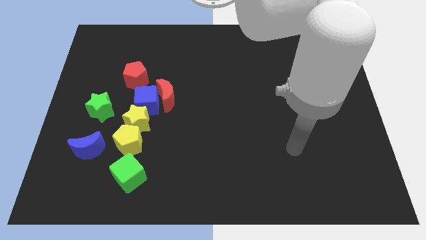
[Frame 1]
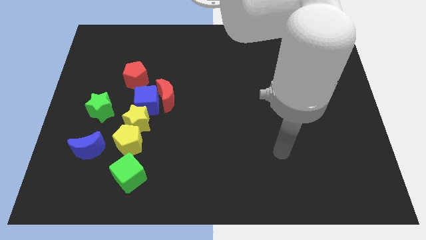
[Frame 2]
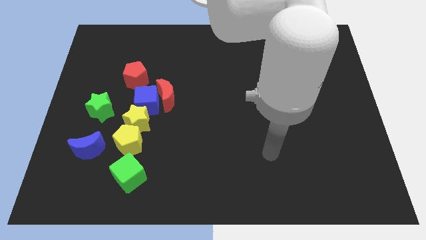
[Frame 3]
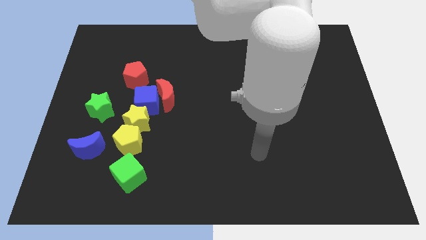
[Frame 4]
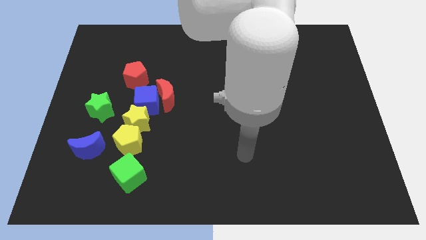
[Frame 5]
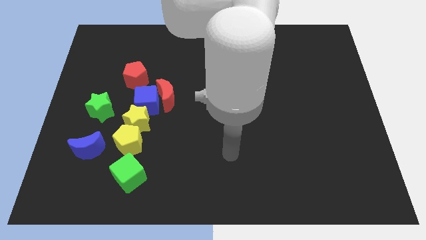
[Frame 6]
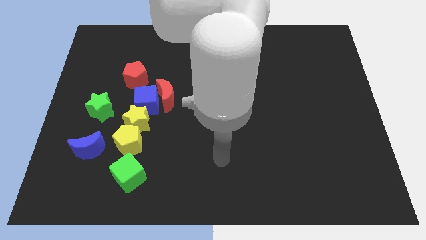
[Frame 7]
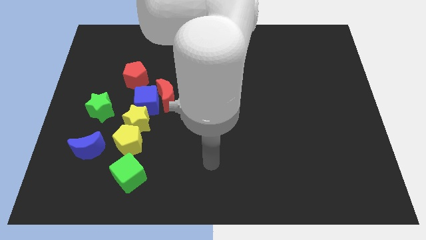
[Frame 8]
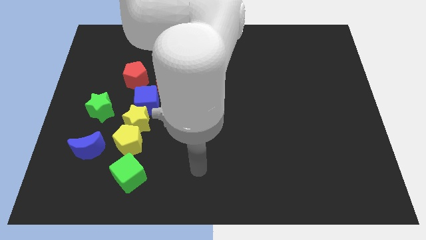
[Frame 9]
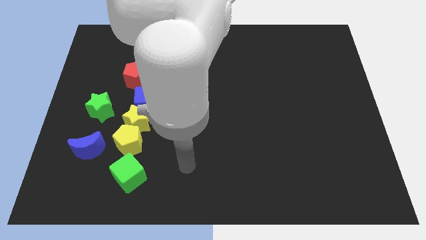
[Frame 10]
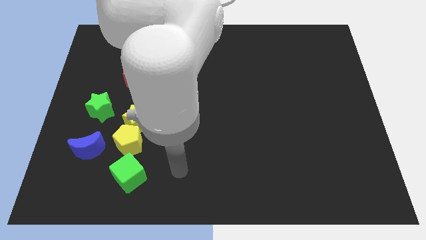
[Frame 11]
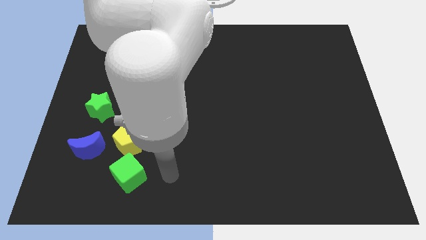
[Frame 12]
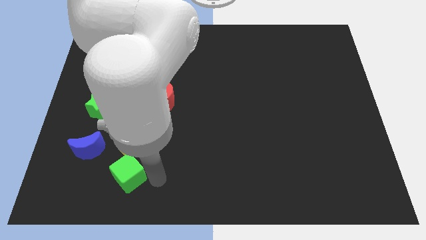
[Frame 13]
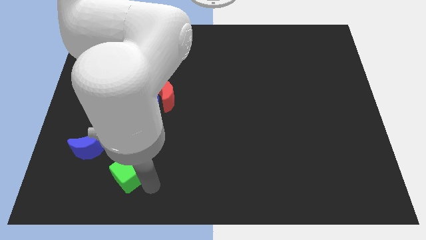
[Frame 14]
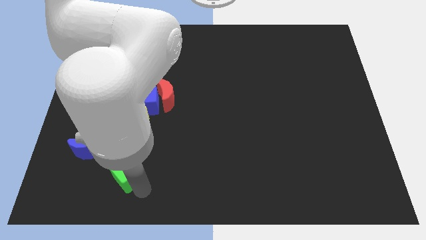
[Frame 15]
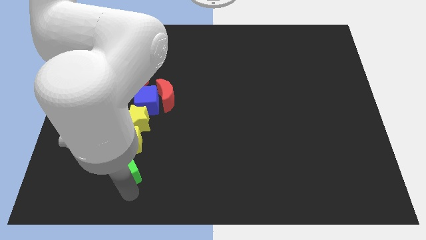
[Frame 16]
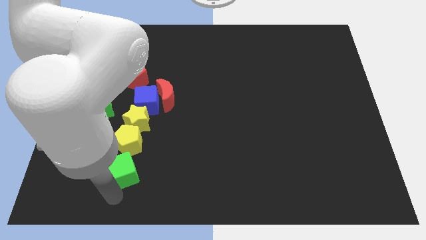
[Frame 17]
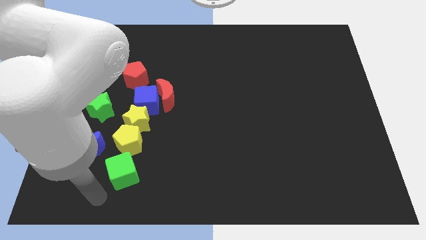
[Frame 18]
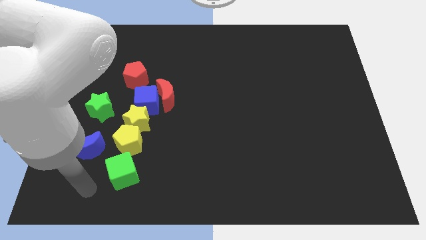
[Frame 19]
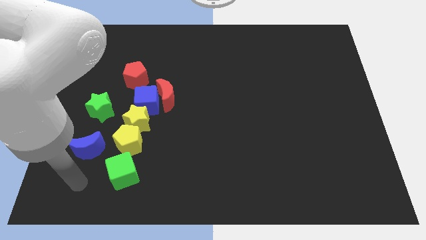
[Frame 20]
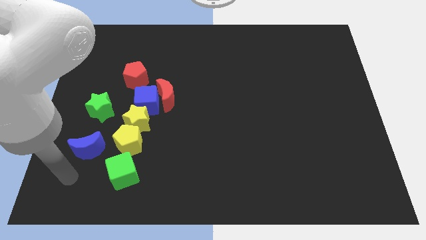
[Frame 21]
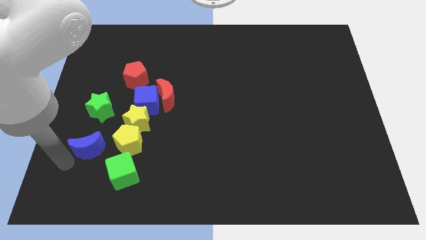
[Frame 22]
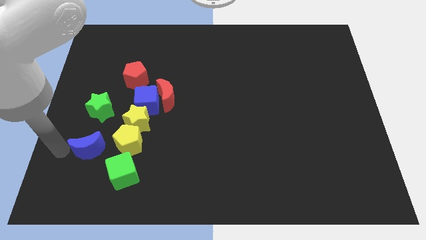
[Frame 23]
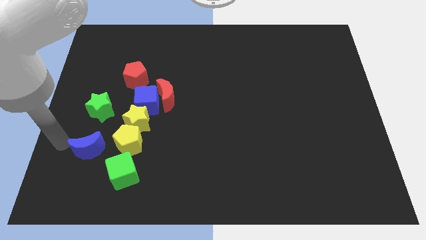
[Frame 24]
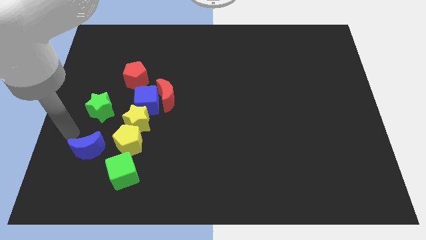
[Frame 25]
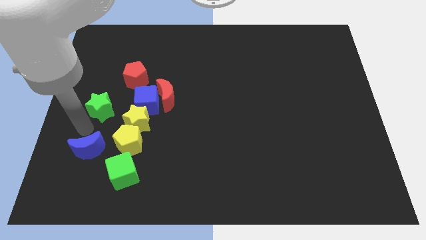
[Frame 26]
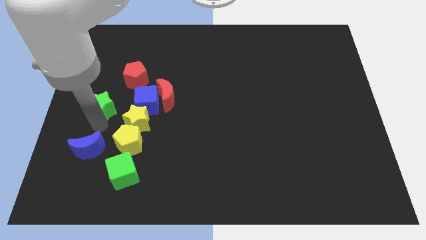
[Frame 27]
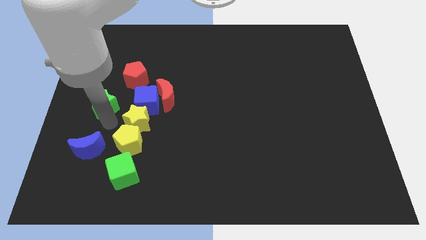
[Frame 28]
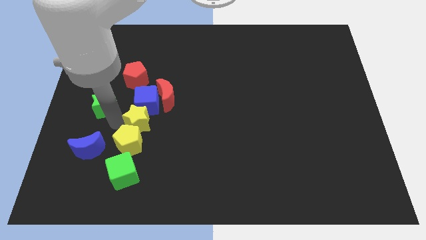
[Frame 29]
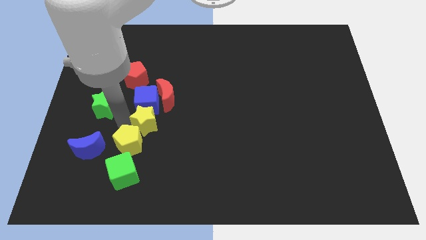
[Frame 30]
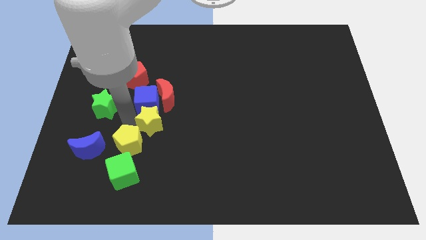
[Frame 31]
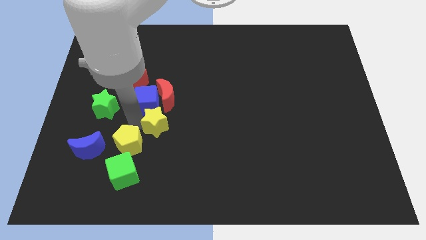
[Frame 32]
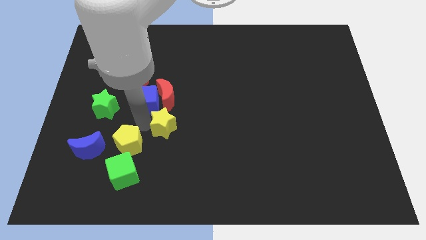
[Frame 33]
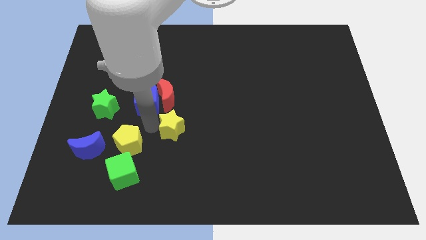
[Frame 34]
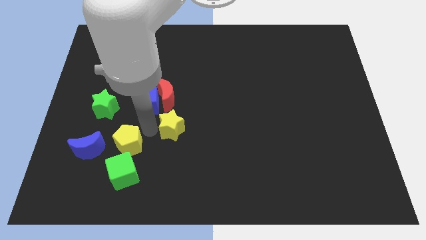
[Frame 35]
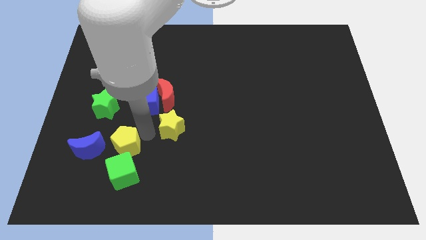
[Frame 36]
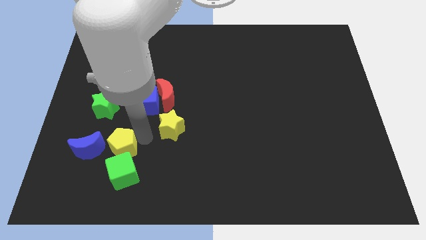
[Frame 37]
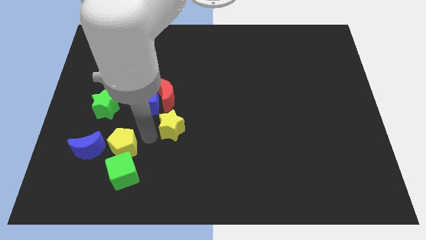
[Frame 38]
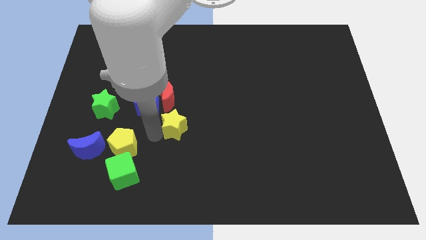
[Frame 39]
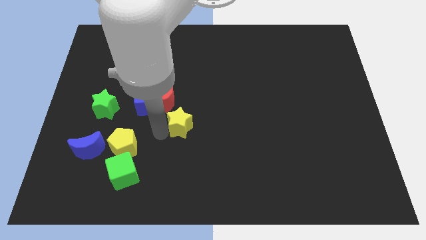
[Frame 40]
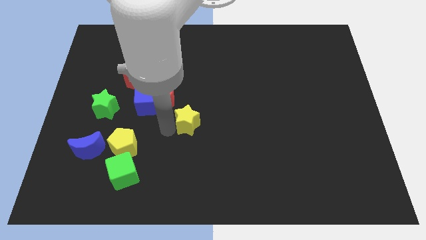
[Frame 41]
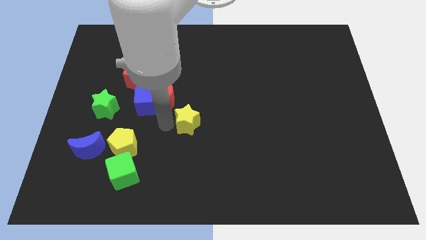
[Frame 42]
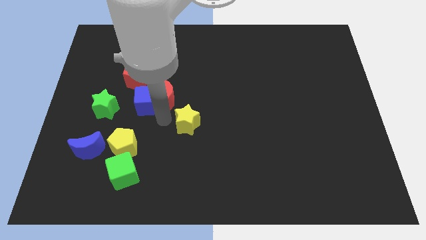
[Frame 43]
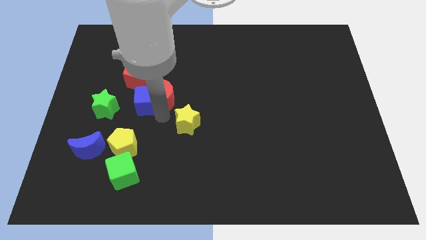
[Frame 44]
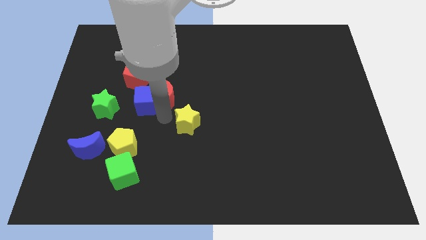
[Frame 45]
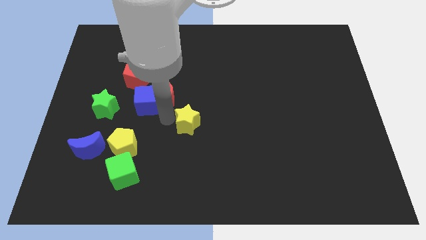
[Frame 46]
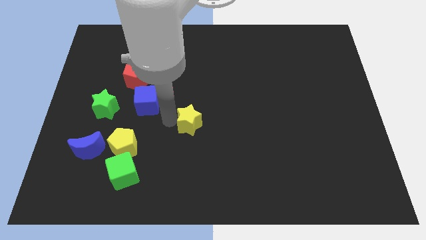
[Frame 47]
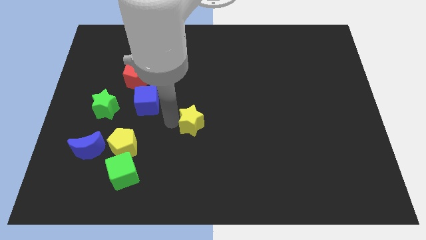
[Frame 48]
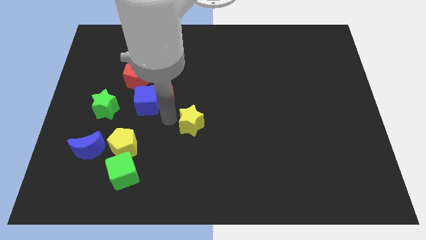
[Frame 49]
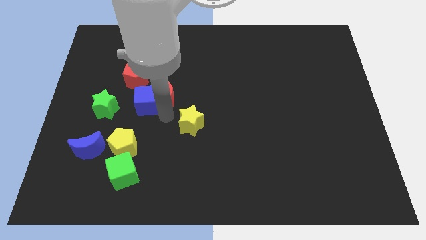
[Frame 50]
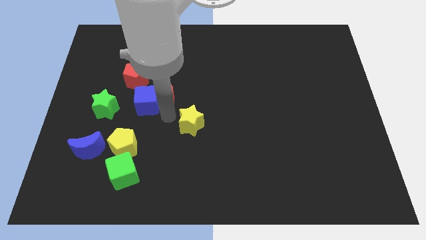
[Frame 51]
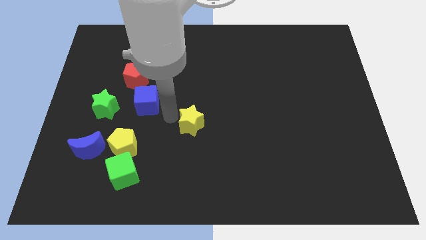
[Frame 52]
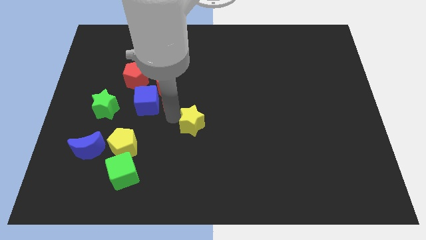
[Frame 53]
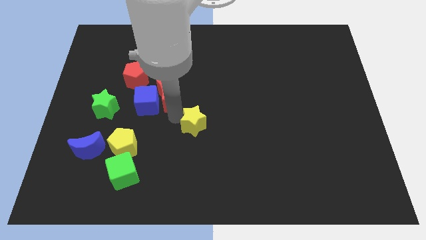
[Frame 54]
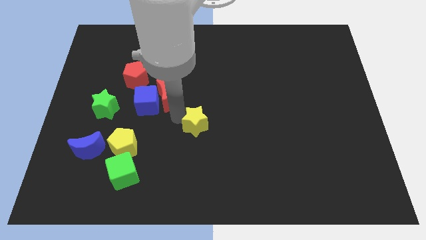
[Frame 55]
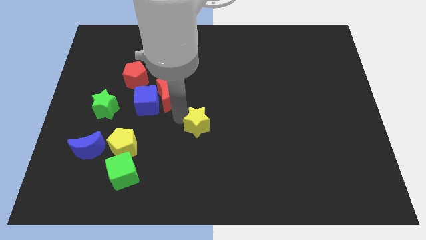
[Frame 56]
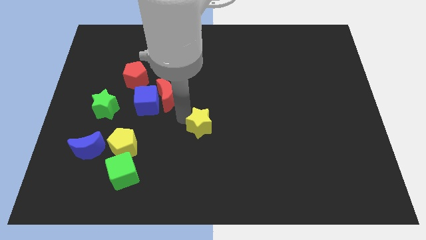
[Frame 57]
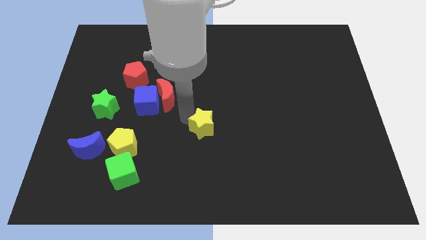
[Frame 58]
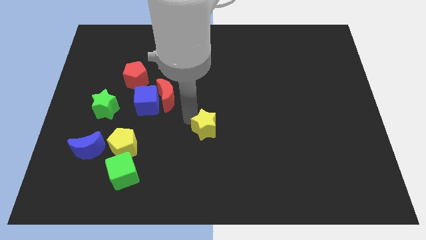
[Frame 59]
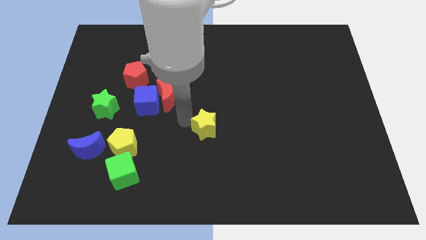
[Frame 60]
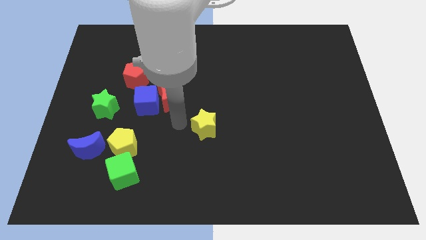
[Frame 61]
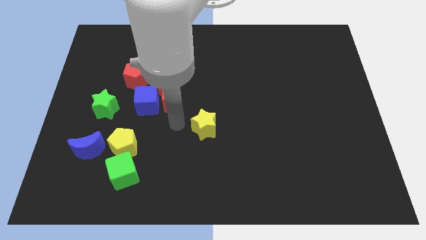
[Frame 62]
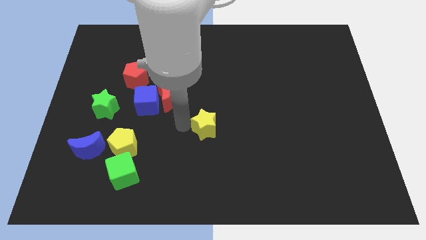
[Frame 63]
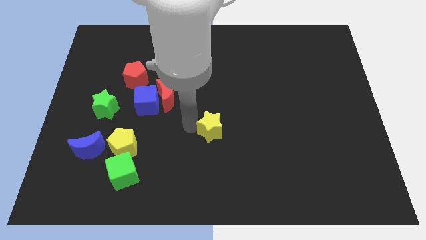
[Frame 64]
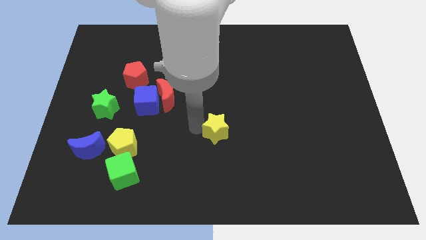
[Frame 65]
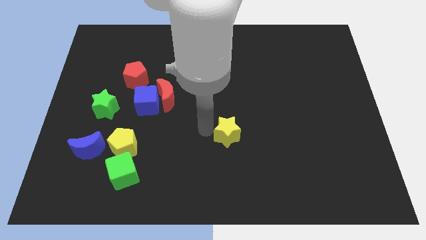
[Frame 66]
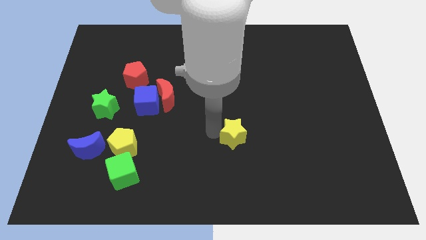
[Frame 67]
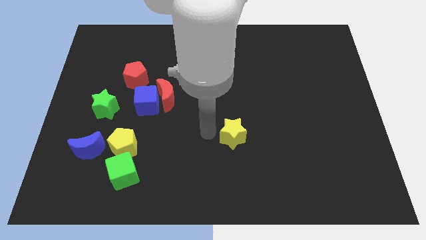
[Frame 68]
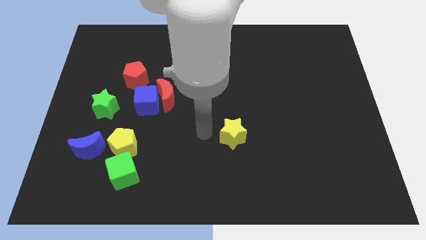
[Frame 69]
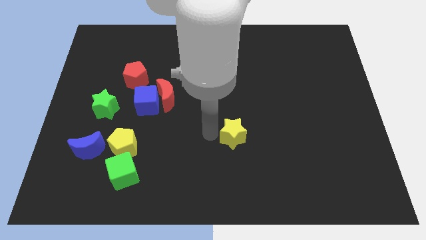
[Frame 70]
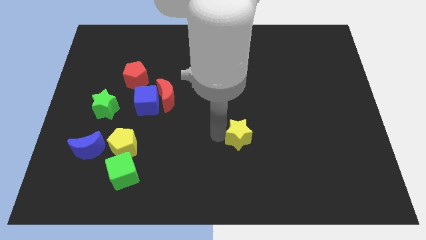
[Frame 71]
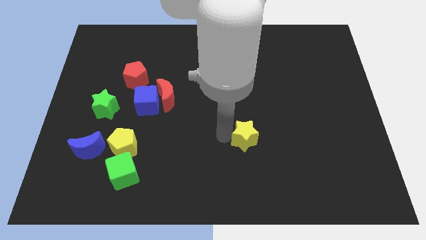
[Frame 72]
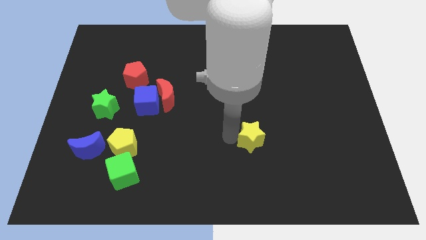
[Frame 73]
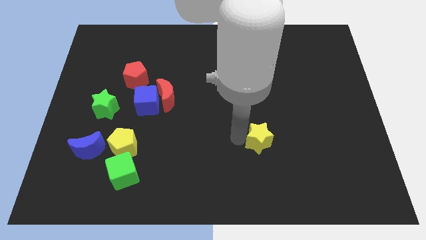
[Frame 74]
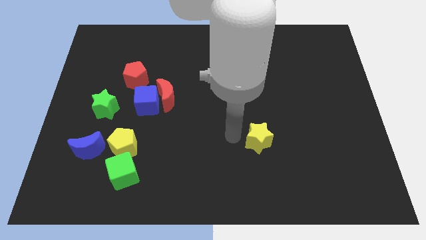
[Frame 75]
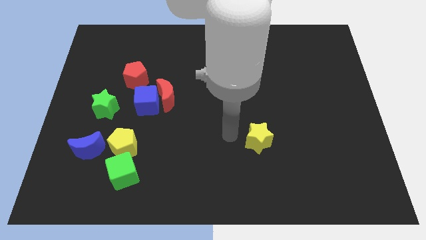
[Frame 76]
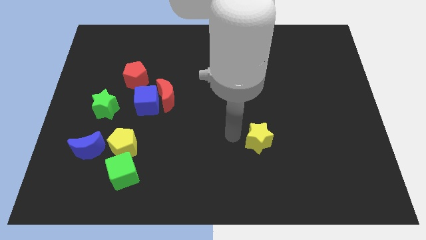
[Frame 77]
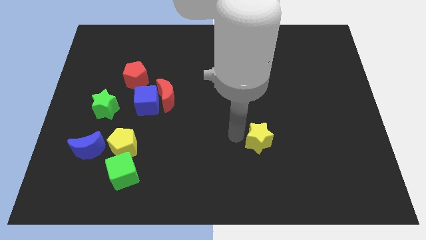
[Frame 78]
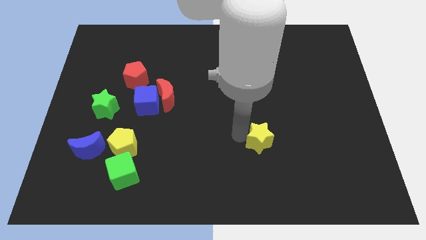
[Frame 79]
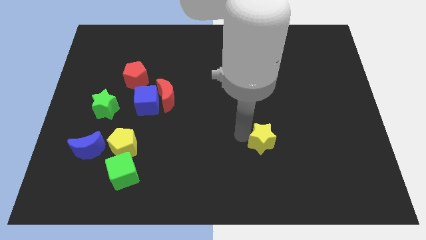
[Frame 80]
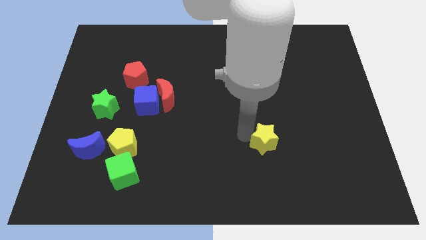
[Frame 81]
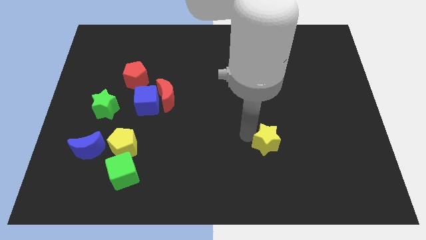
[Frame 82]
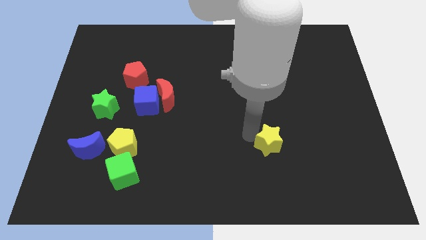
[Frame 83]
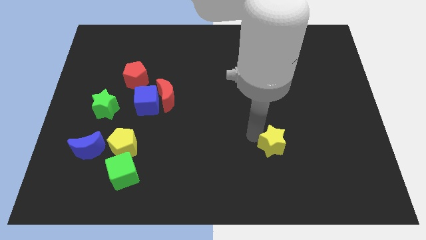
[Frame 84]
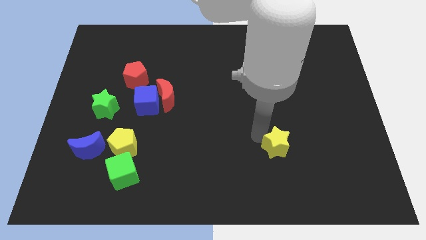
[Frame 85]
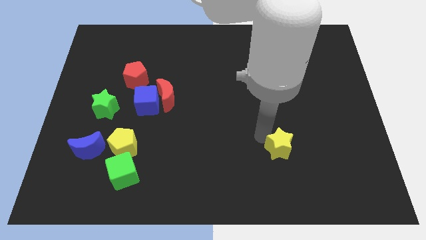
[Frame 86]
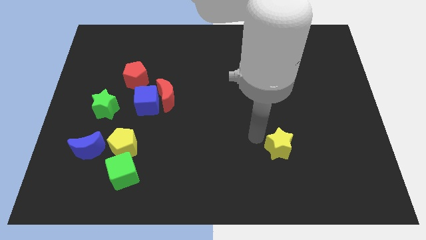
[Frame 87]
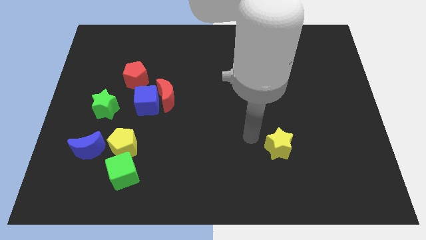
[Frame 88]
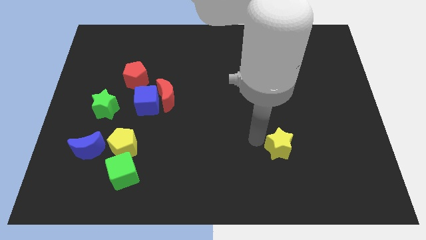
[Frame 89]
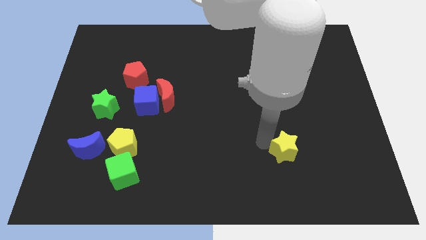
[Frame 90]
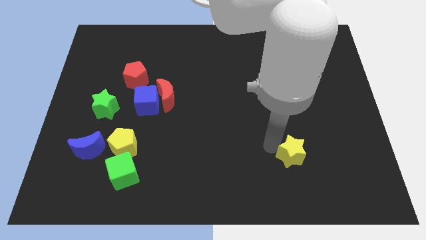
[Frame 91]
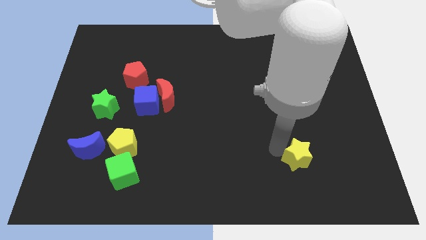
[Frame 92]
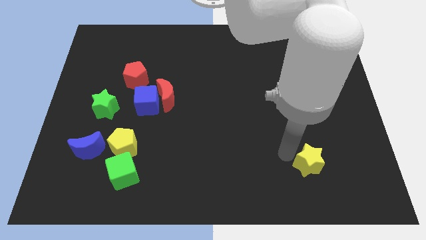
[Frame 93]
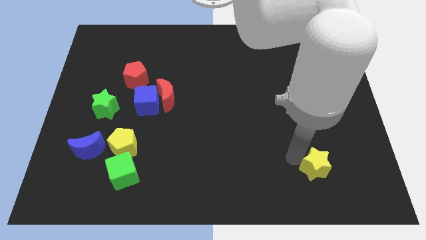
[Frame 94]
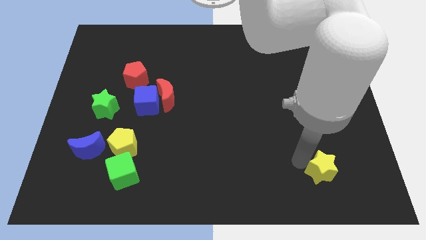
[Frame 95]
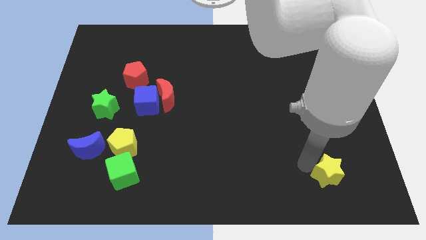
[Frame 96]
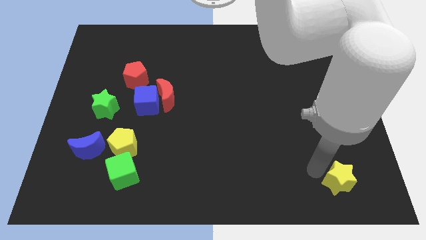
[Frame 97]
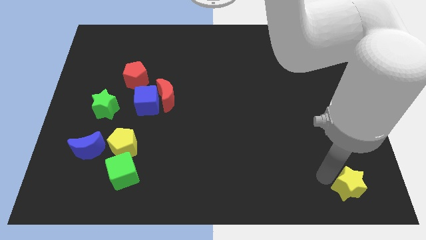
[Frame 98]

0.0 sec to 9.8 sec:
move the yellow star to the bottom right corner
